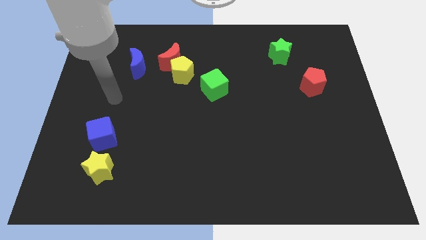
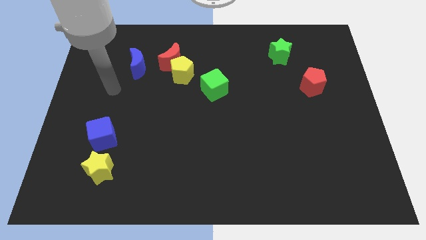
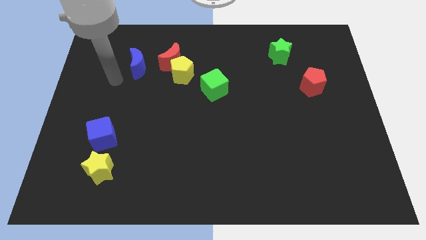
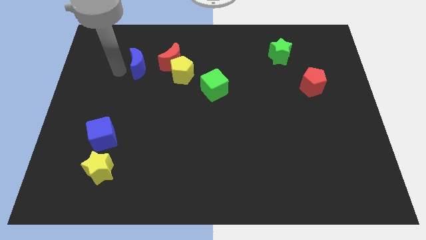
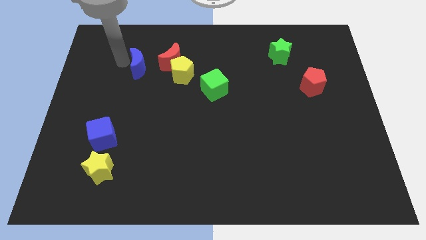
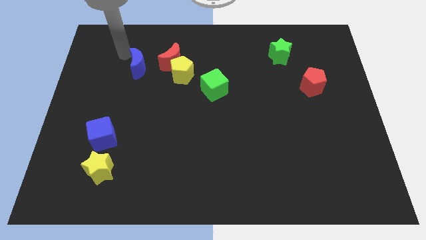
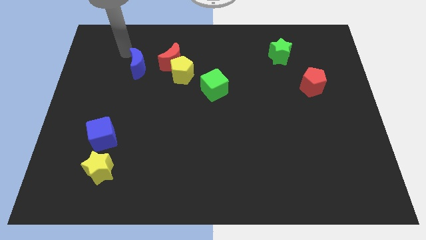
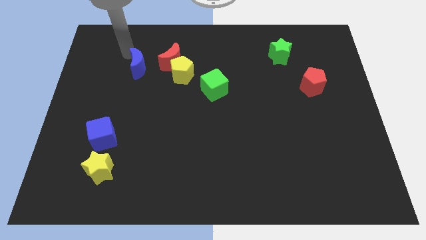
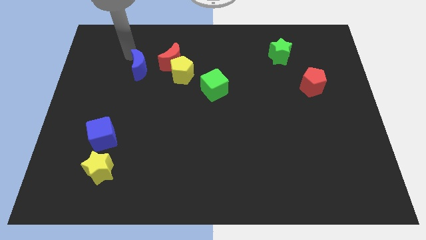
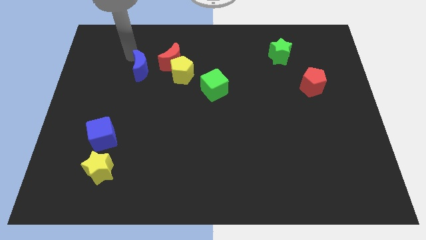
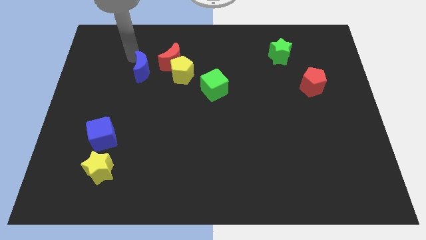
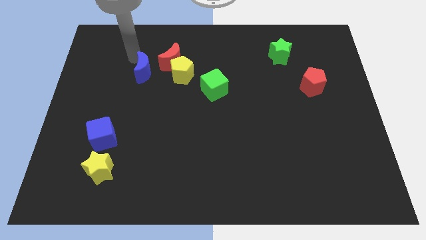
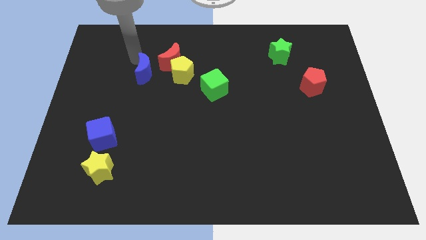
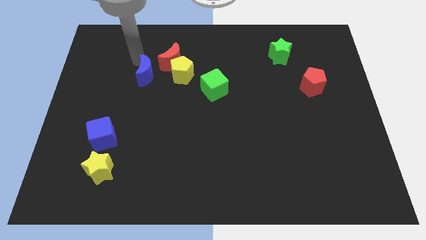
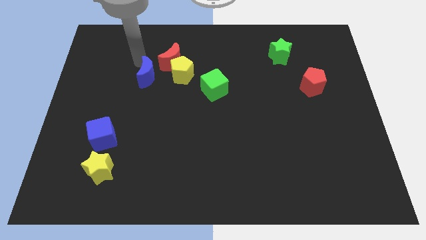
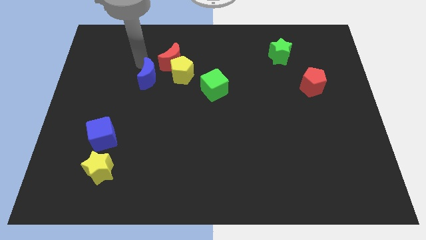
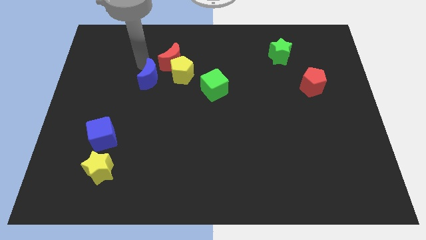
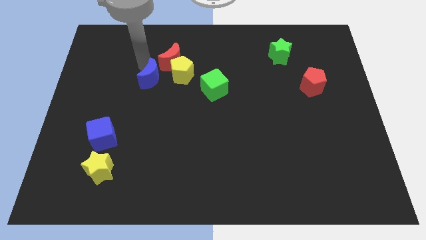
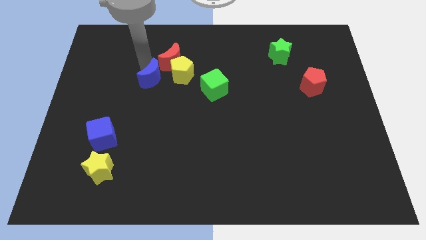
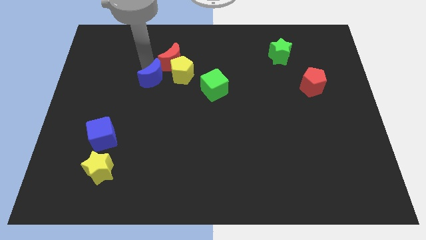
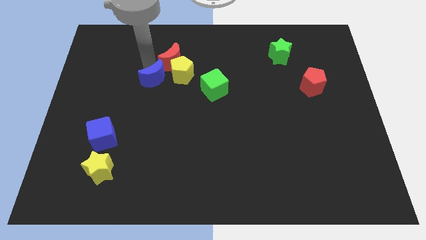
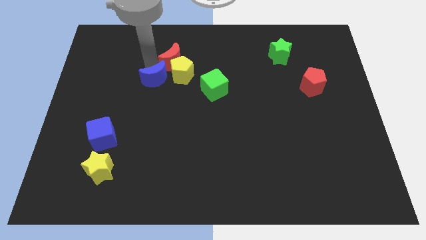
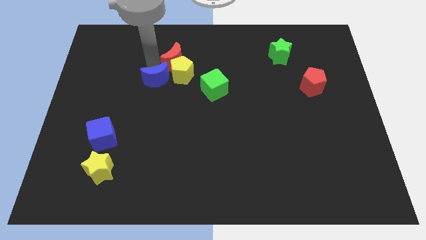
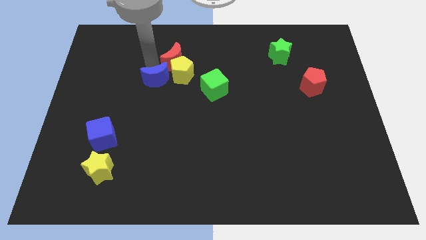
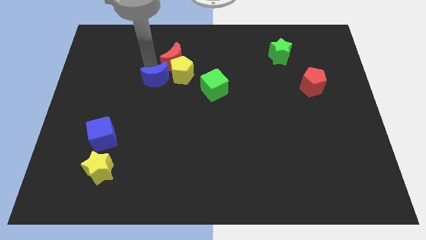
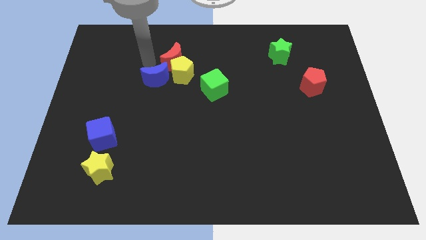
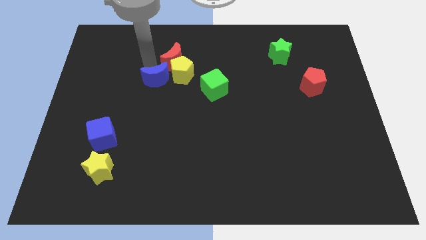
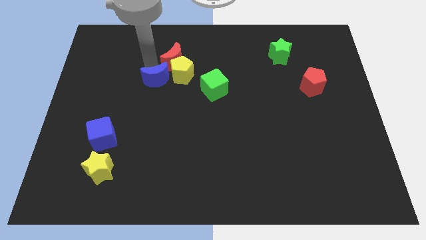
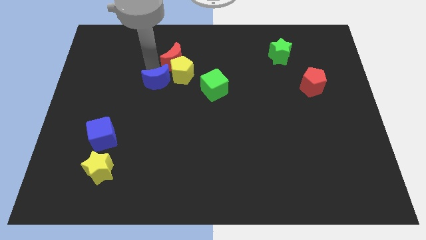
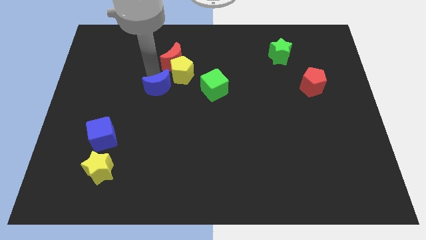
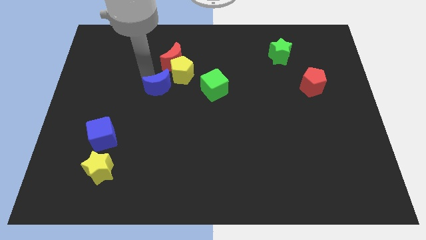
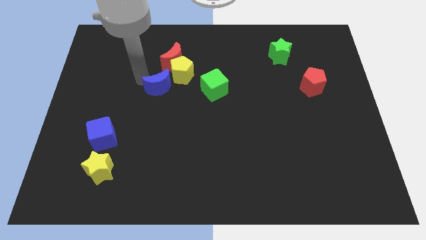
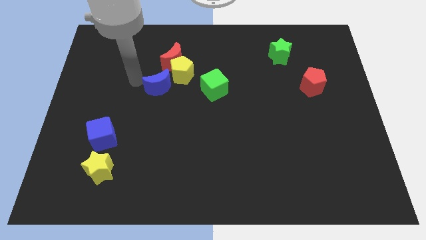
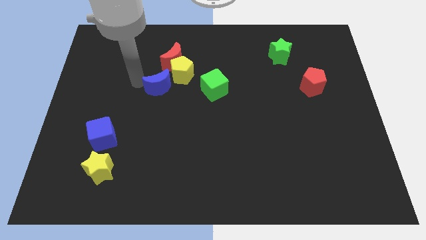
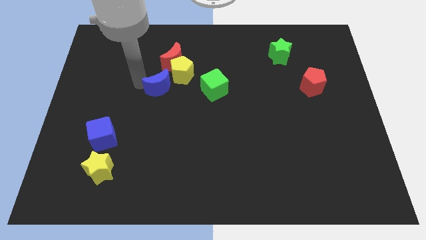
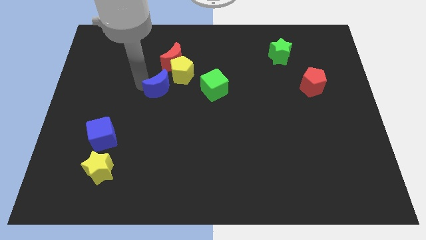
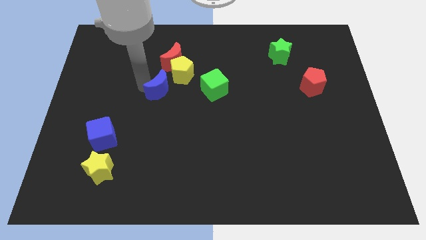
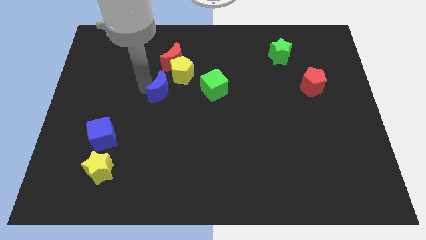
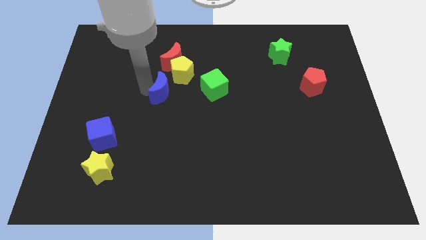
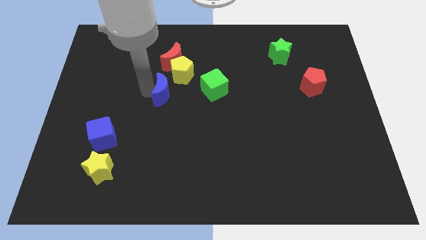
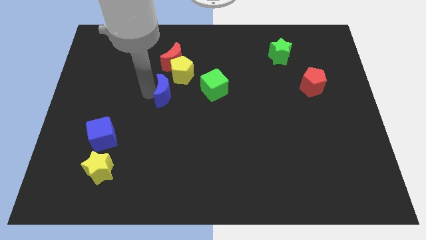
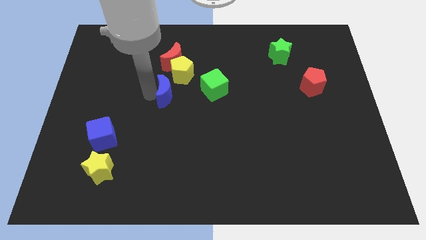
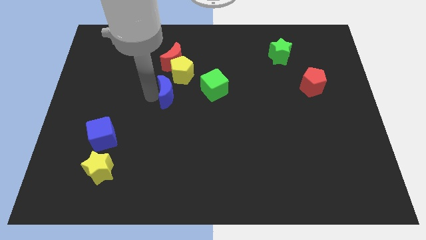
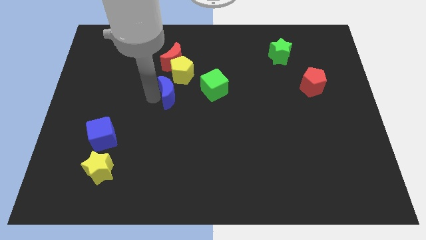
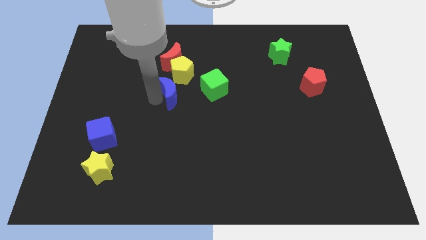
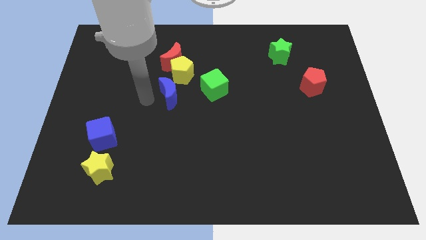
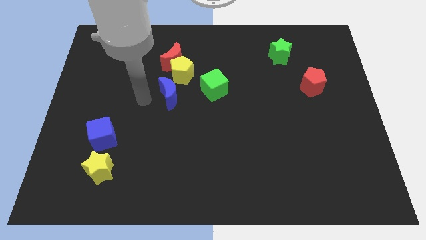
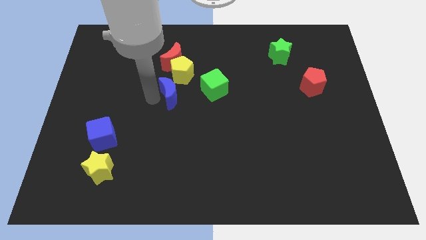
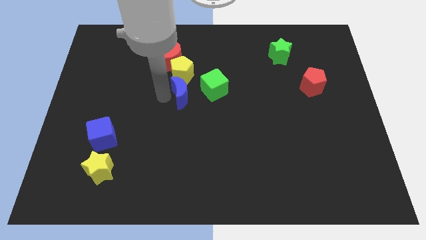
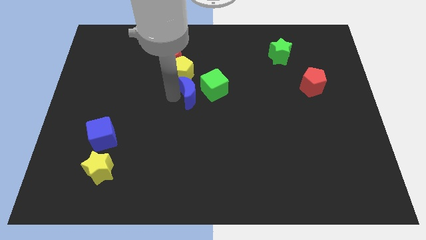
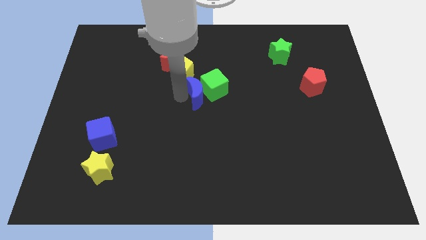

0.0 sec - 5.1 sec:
slide the blue moon next to the green cube

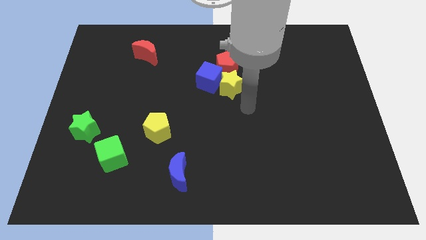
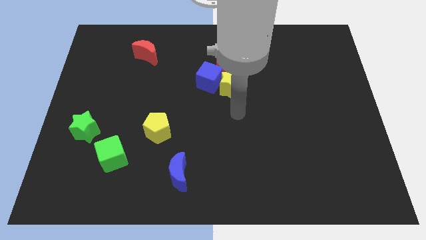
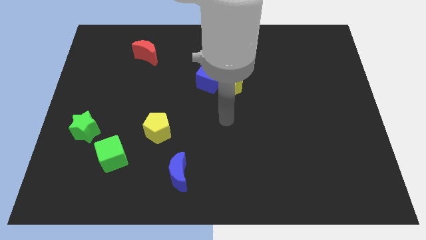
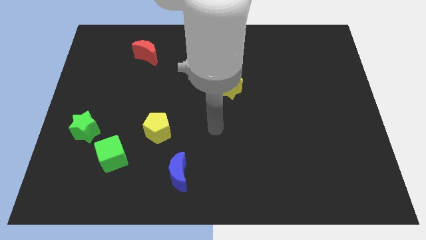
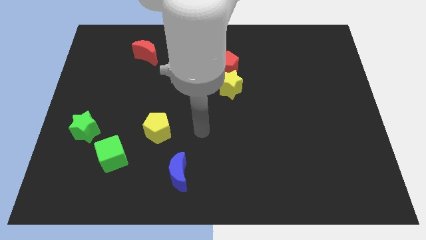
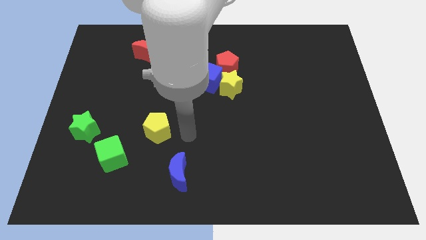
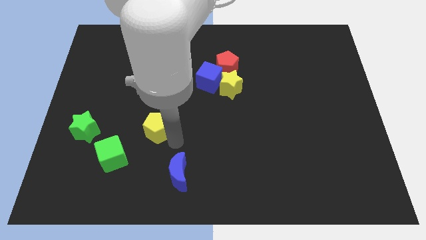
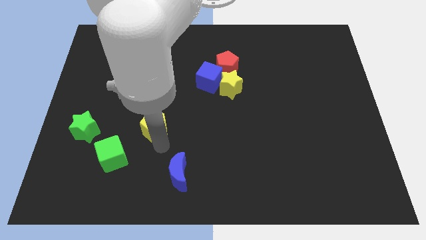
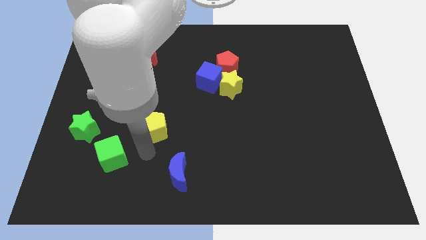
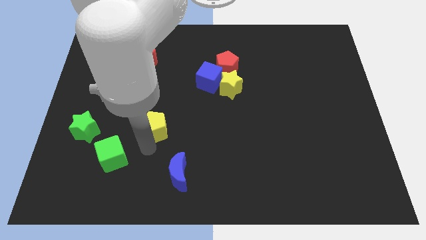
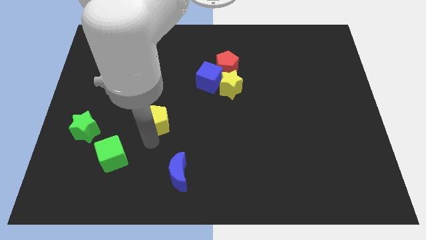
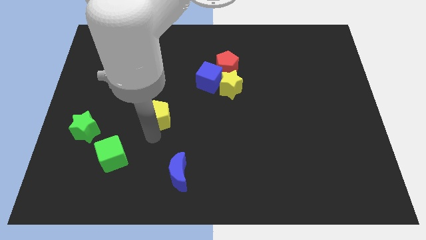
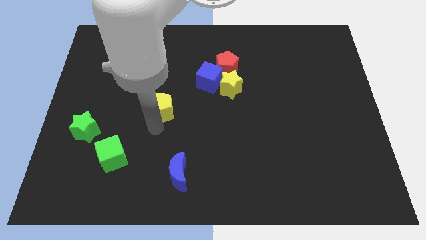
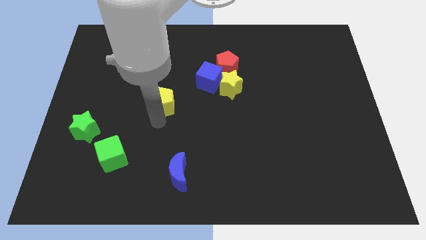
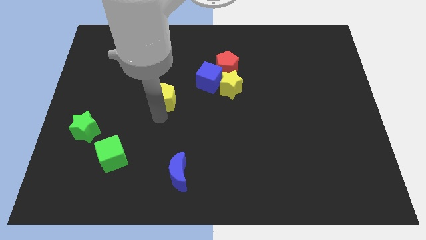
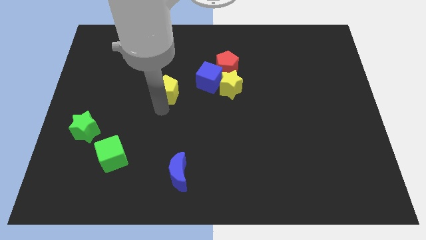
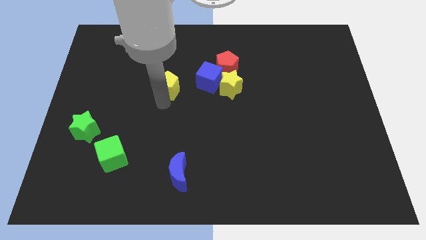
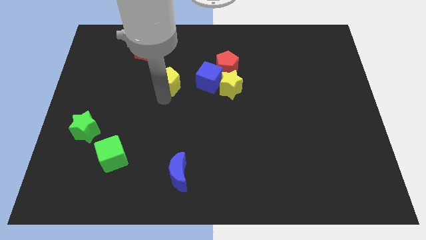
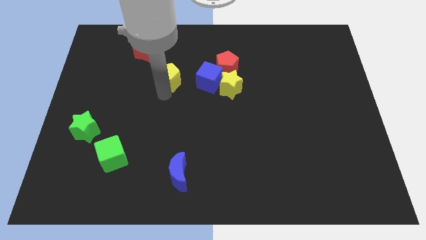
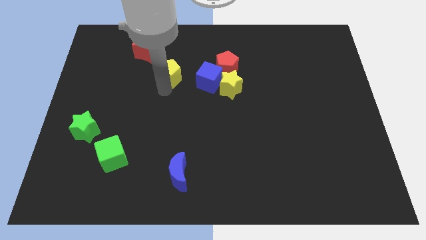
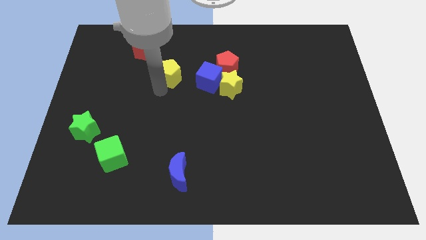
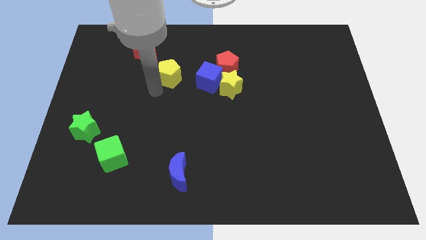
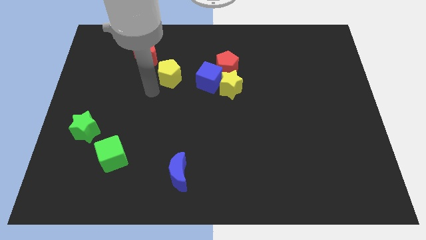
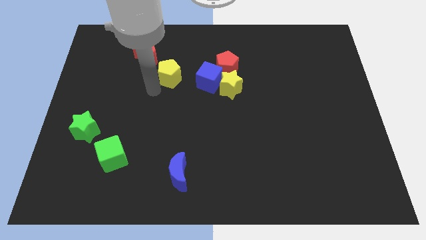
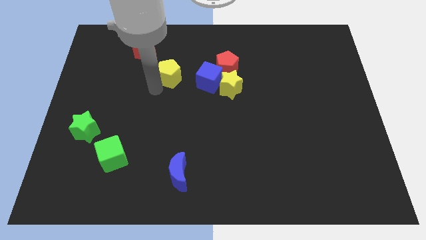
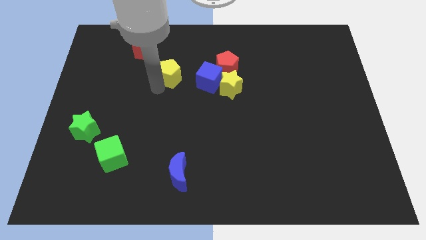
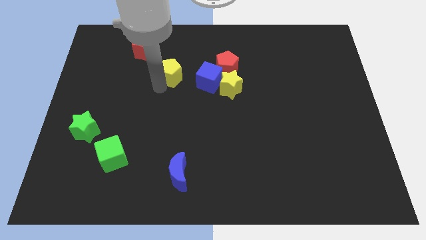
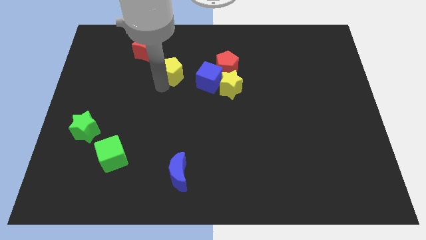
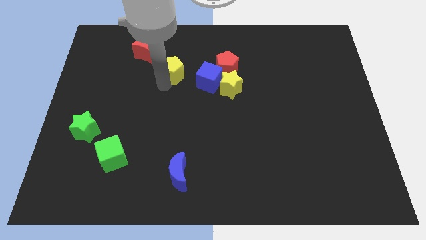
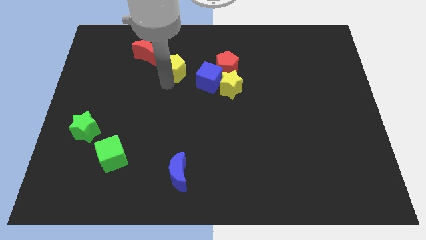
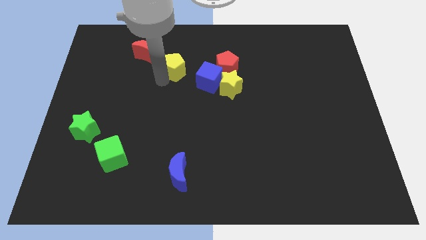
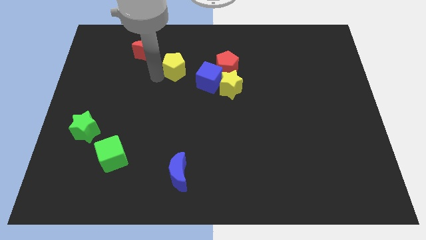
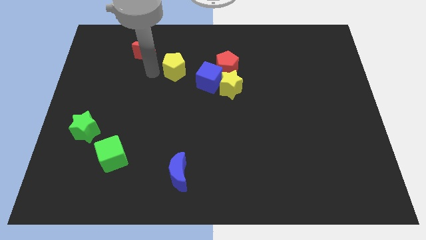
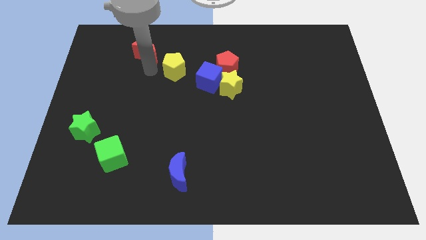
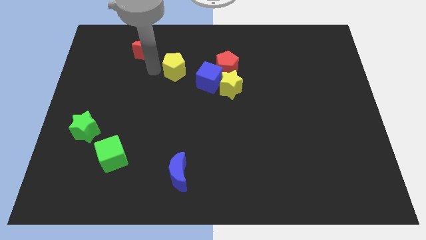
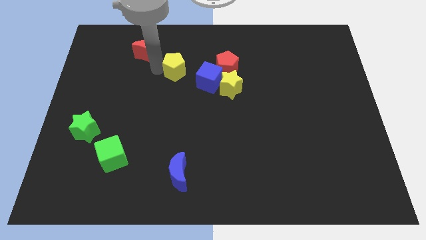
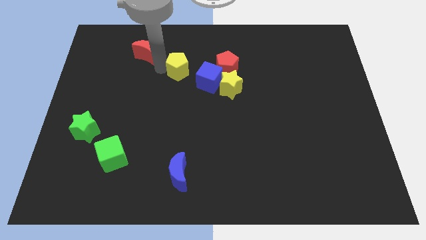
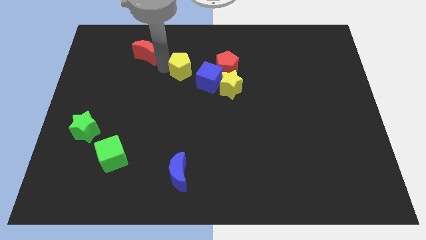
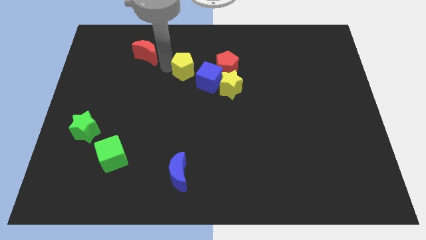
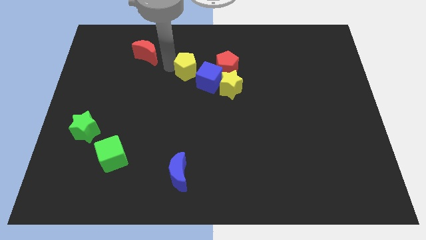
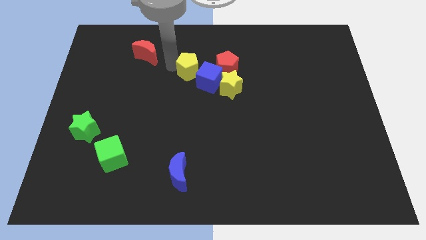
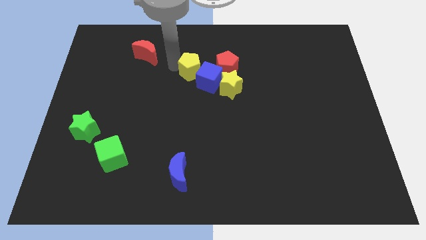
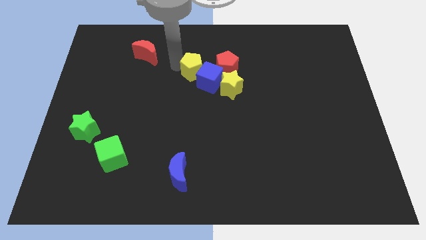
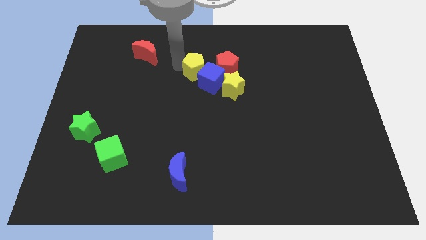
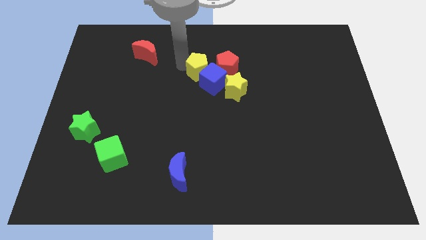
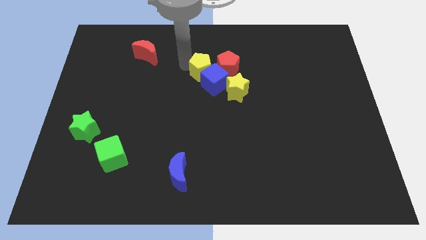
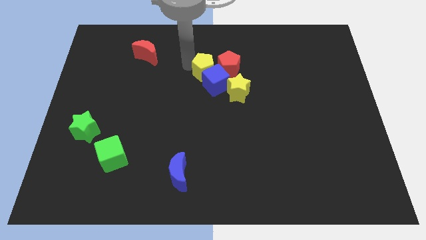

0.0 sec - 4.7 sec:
slide the yellow pentagon next to the red pentagon
